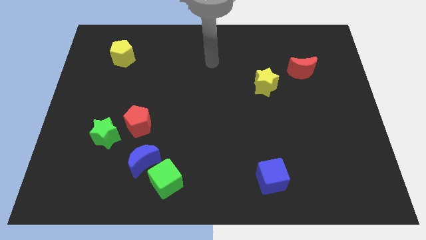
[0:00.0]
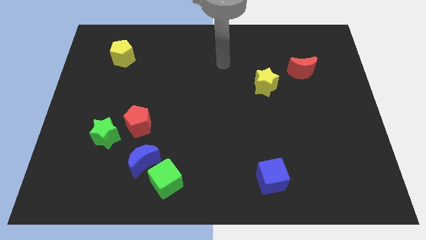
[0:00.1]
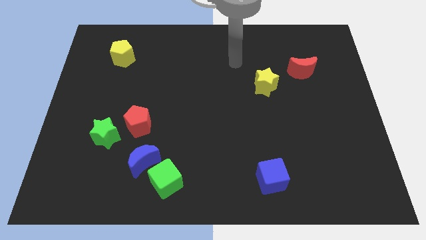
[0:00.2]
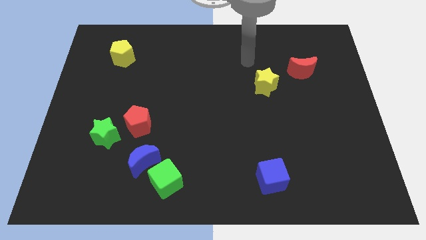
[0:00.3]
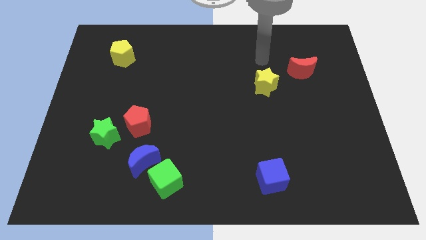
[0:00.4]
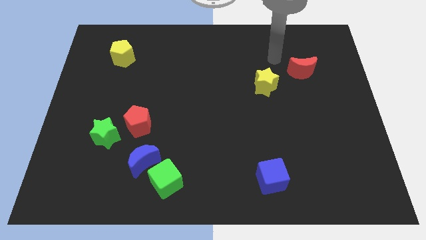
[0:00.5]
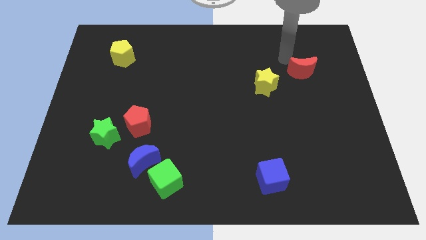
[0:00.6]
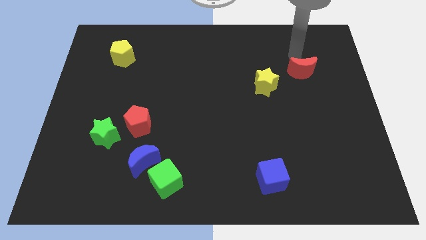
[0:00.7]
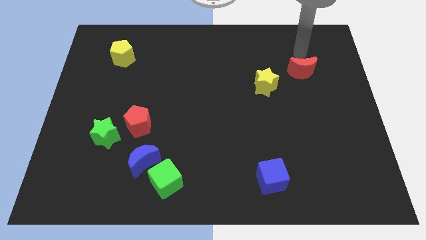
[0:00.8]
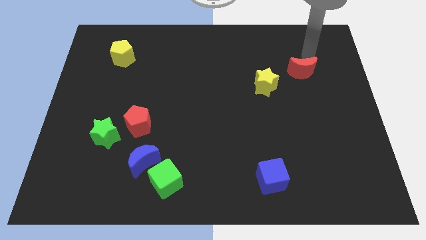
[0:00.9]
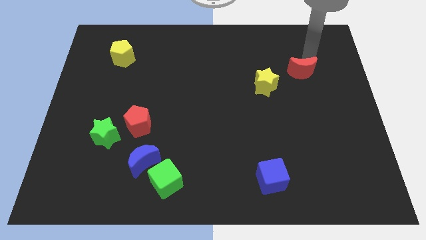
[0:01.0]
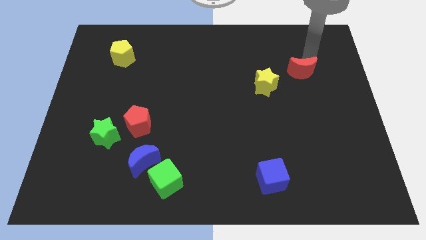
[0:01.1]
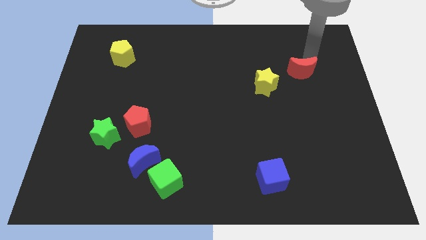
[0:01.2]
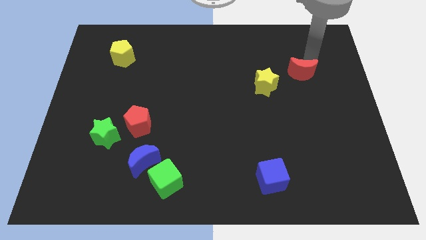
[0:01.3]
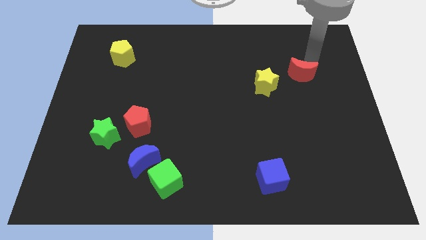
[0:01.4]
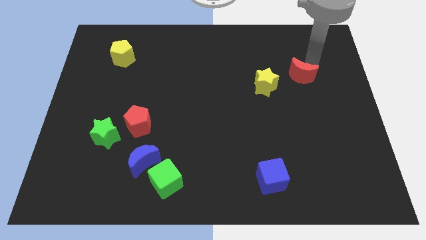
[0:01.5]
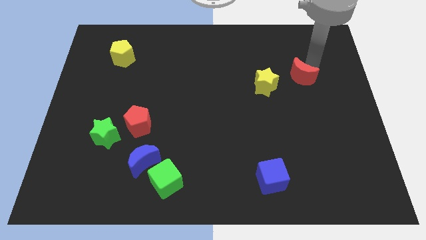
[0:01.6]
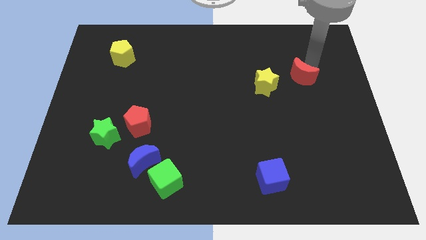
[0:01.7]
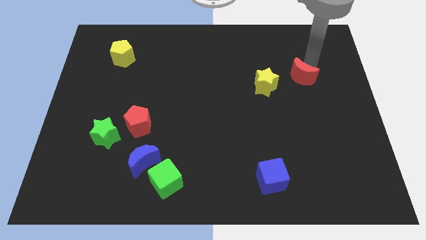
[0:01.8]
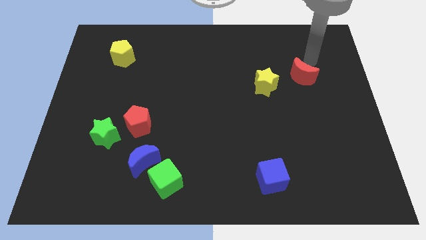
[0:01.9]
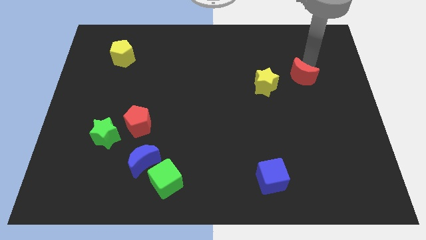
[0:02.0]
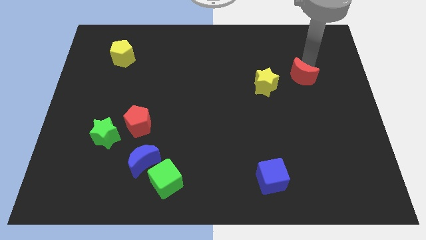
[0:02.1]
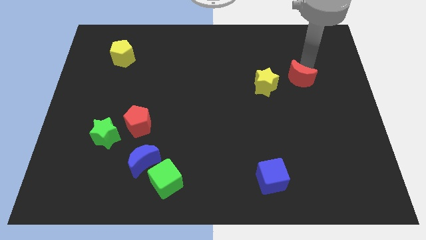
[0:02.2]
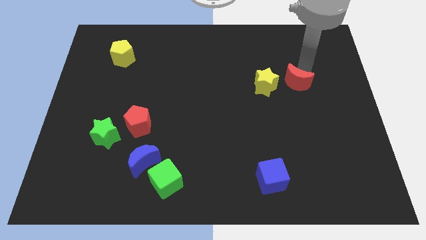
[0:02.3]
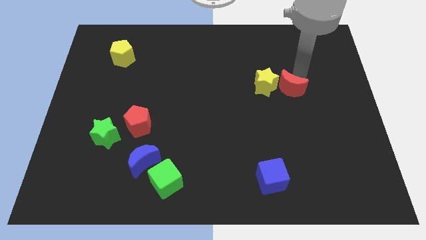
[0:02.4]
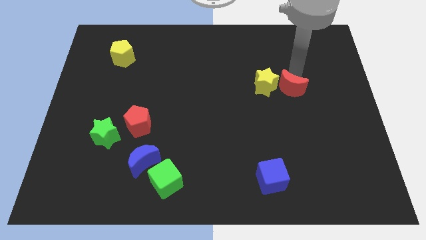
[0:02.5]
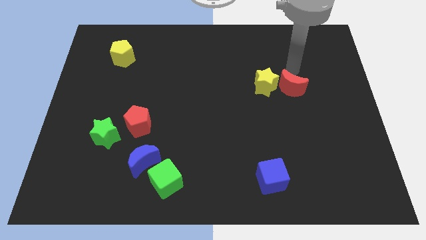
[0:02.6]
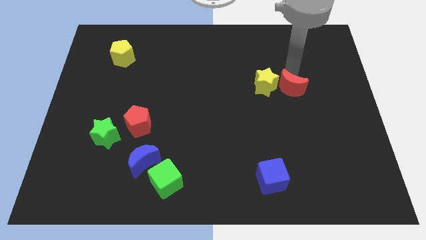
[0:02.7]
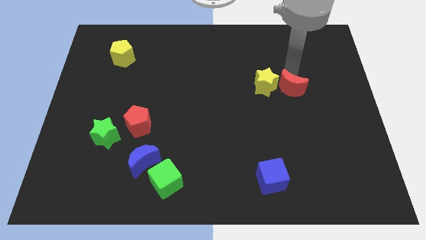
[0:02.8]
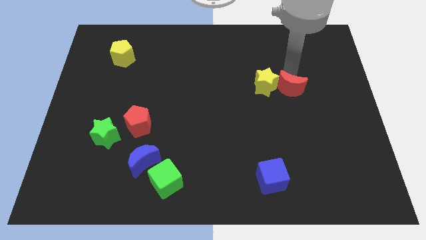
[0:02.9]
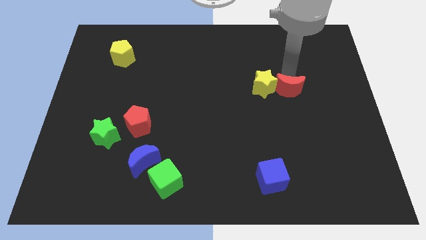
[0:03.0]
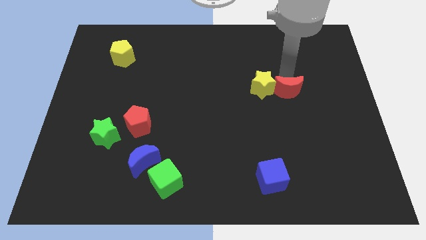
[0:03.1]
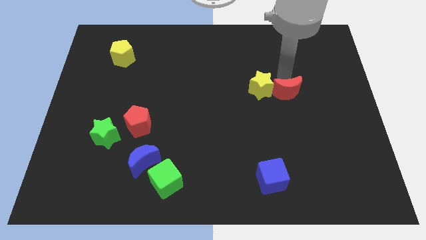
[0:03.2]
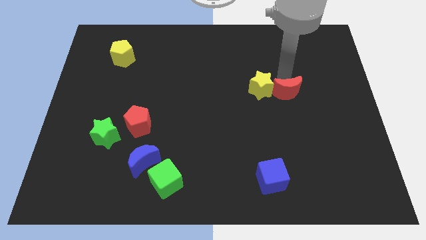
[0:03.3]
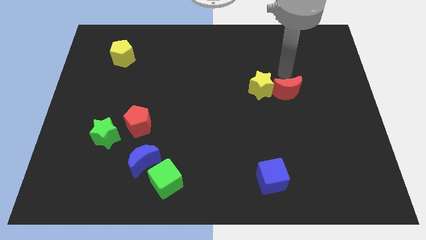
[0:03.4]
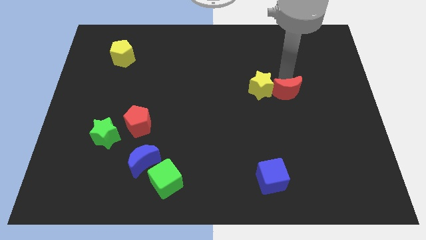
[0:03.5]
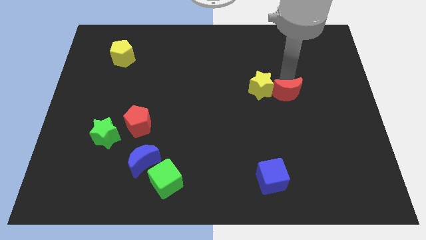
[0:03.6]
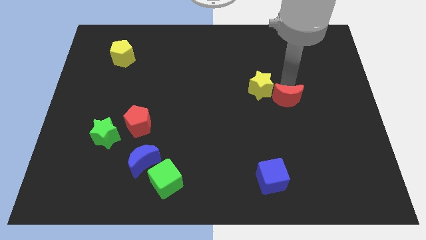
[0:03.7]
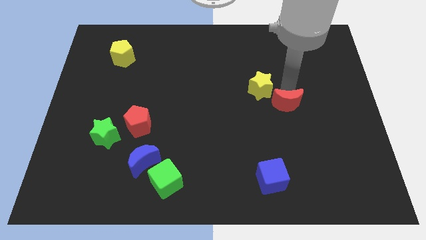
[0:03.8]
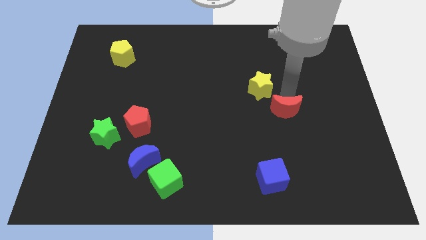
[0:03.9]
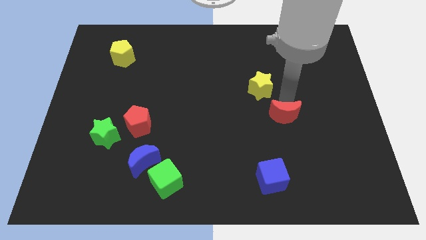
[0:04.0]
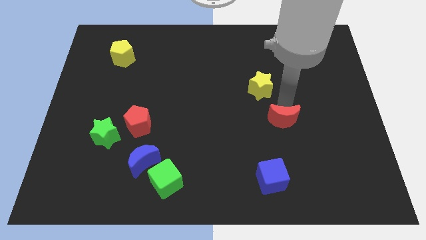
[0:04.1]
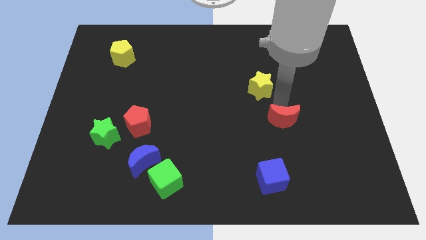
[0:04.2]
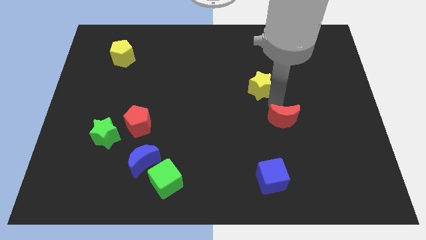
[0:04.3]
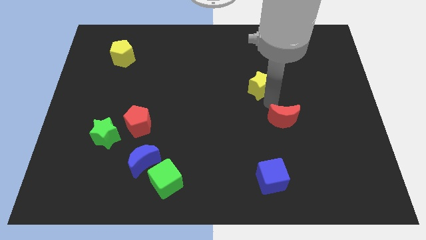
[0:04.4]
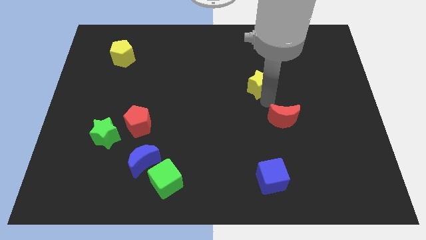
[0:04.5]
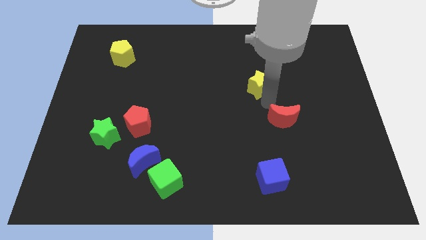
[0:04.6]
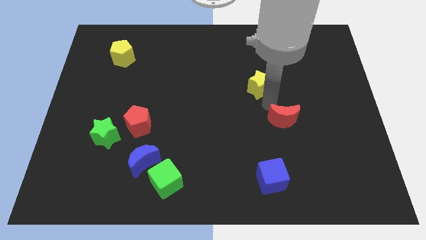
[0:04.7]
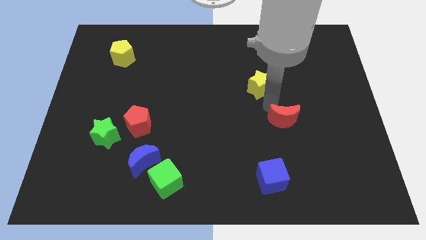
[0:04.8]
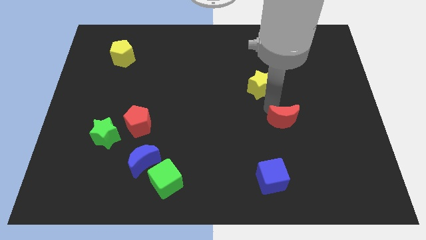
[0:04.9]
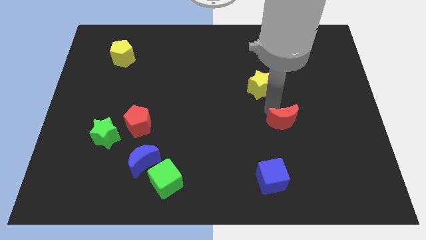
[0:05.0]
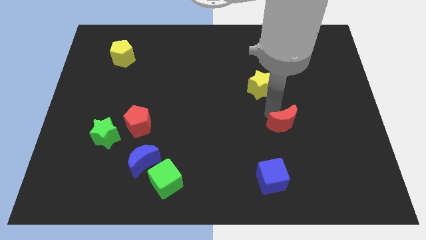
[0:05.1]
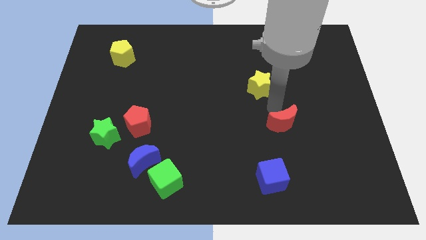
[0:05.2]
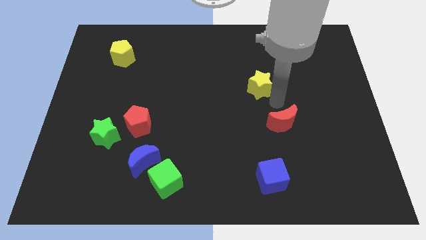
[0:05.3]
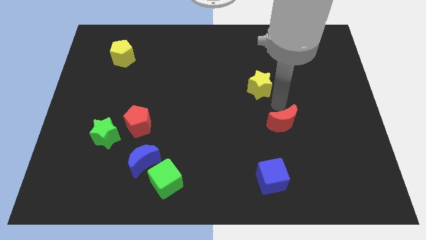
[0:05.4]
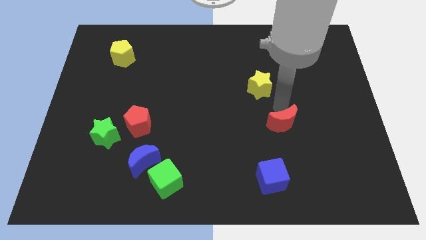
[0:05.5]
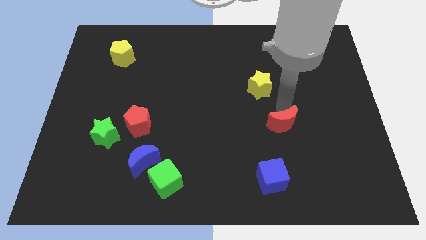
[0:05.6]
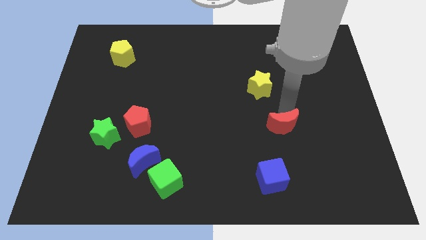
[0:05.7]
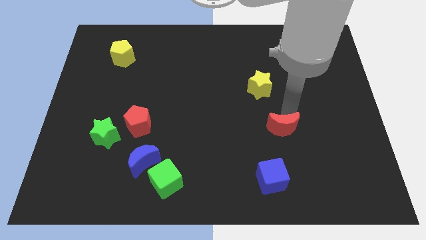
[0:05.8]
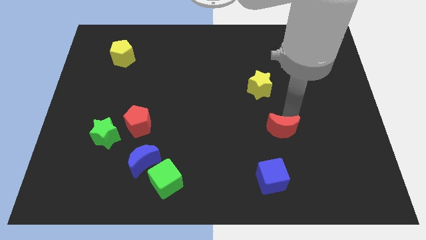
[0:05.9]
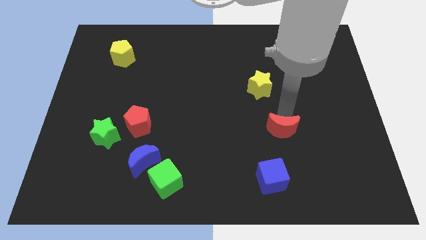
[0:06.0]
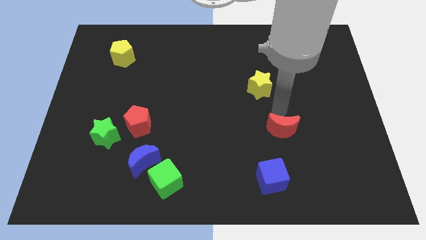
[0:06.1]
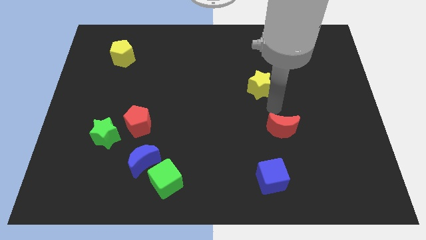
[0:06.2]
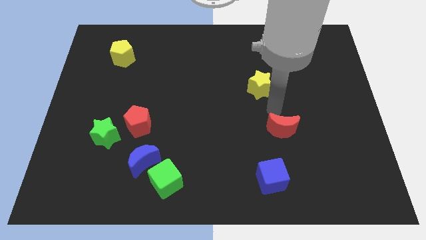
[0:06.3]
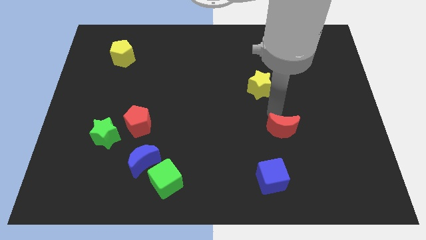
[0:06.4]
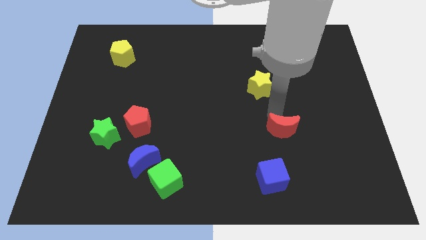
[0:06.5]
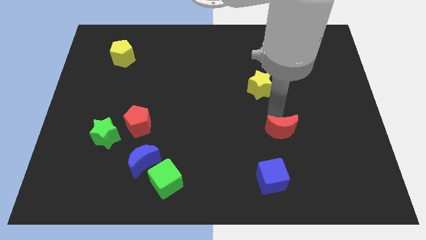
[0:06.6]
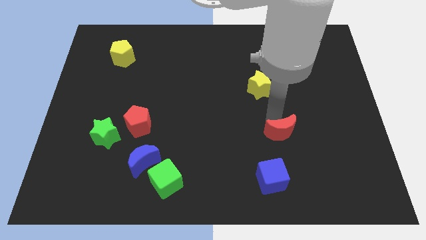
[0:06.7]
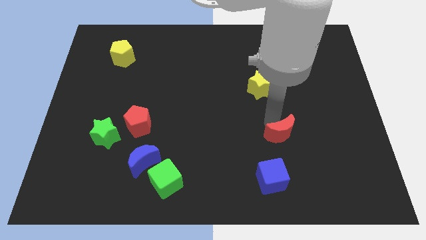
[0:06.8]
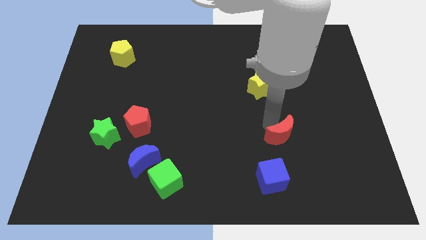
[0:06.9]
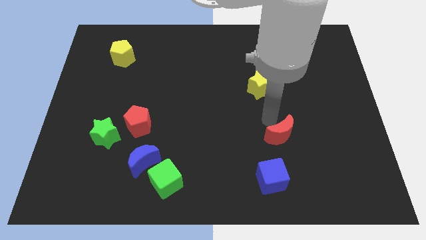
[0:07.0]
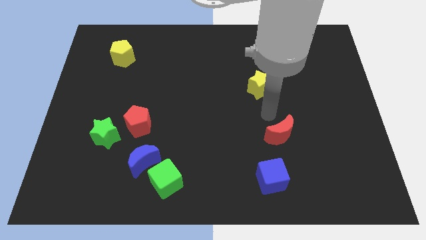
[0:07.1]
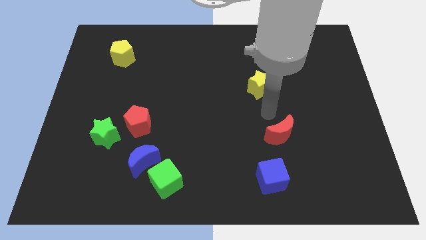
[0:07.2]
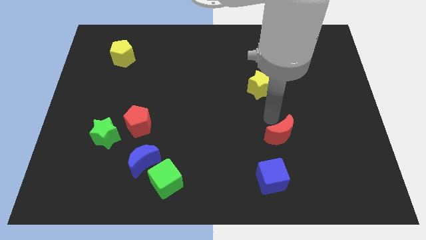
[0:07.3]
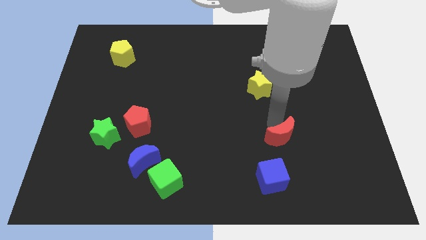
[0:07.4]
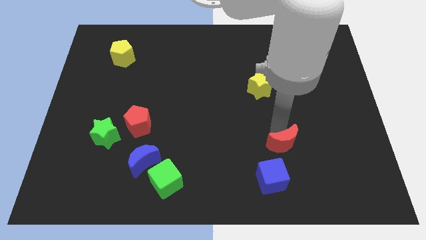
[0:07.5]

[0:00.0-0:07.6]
move the red moon diagonally up and to the right of the blue cube
